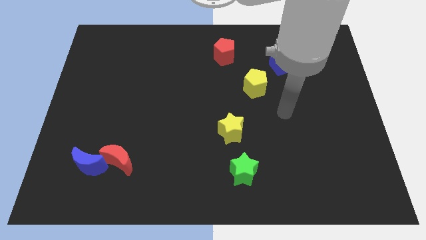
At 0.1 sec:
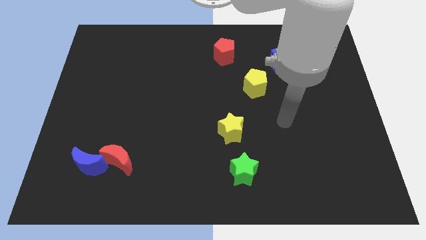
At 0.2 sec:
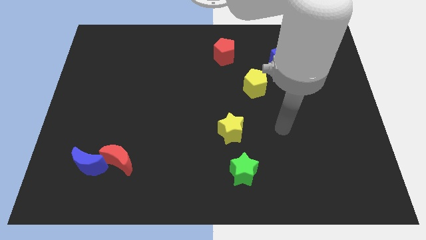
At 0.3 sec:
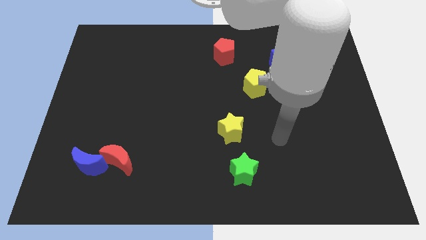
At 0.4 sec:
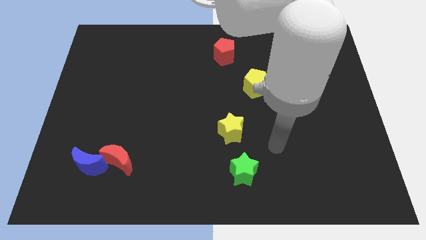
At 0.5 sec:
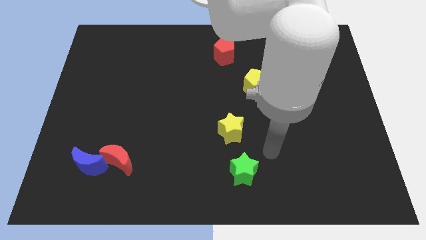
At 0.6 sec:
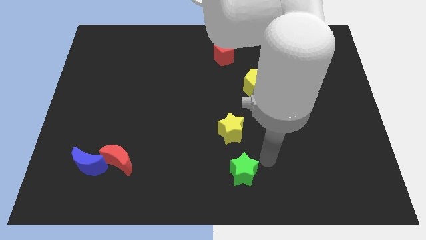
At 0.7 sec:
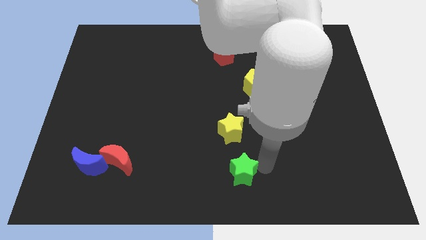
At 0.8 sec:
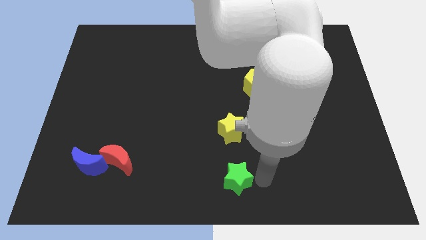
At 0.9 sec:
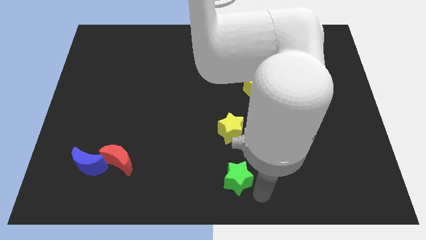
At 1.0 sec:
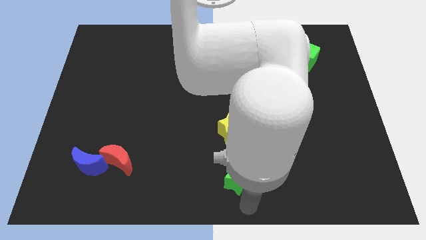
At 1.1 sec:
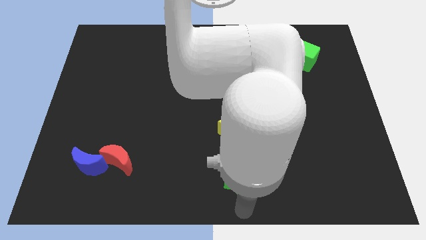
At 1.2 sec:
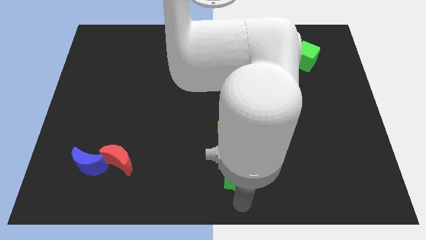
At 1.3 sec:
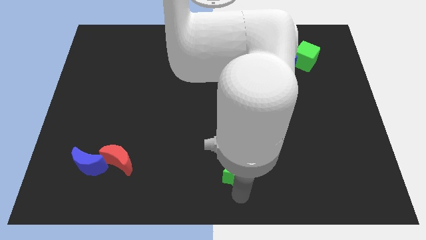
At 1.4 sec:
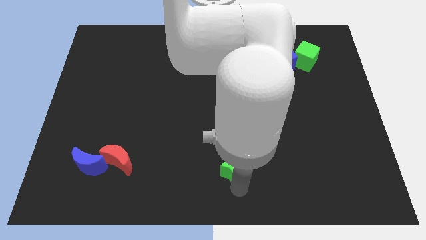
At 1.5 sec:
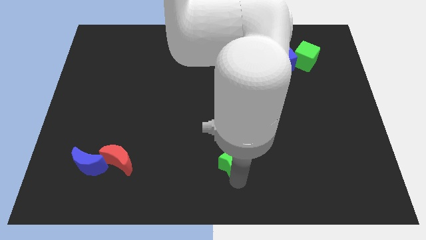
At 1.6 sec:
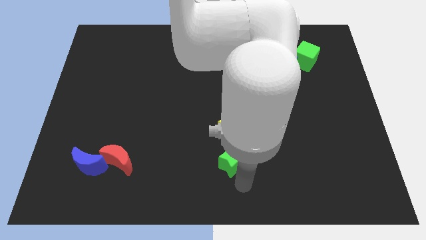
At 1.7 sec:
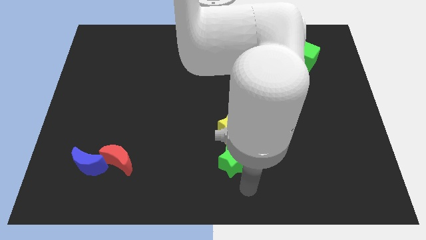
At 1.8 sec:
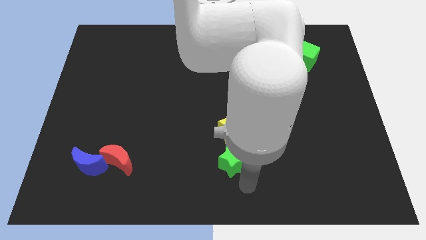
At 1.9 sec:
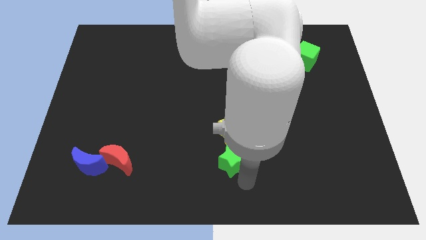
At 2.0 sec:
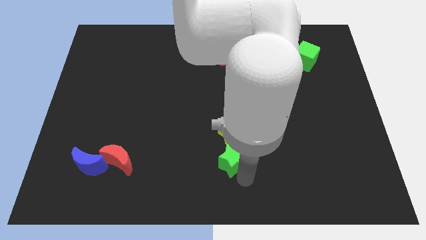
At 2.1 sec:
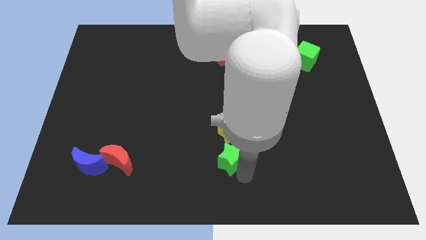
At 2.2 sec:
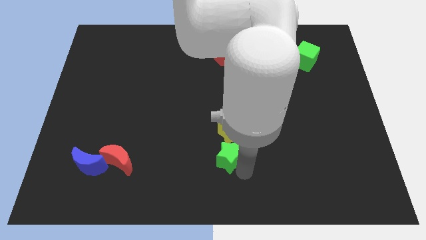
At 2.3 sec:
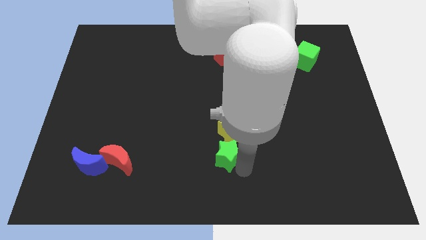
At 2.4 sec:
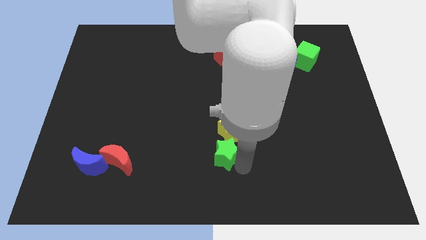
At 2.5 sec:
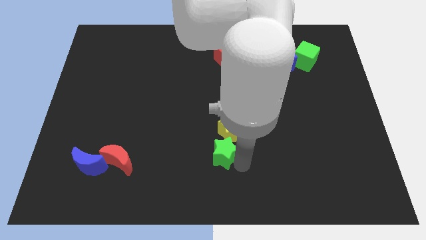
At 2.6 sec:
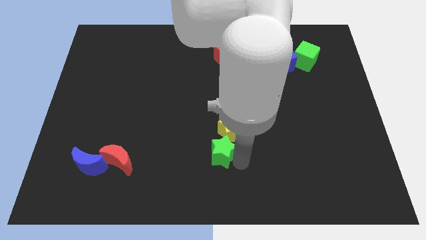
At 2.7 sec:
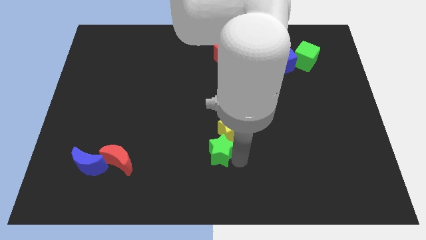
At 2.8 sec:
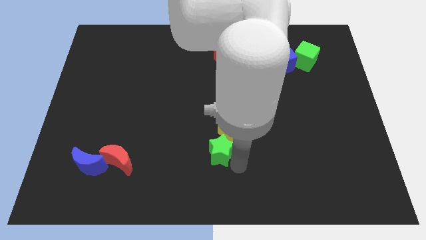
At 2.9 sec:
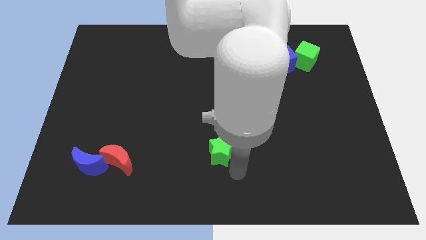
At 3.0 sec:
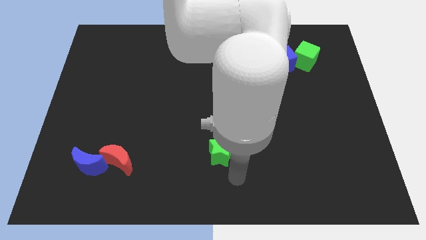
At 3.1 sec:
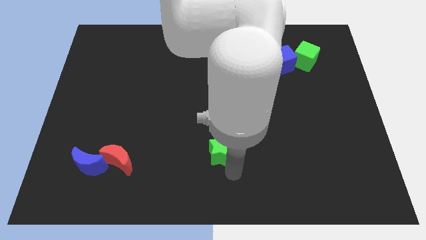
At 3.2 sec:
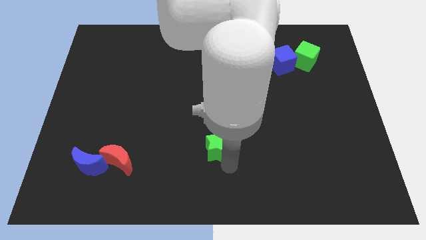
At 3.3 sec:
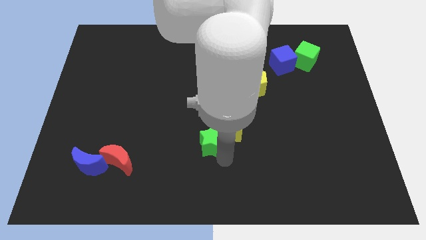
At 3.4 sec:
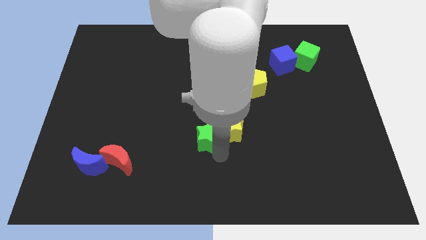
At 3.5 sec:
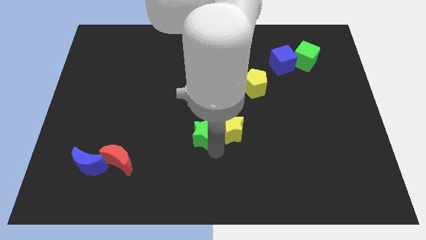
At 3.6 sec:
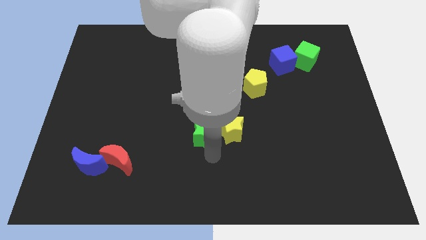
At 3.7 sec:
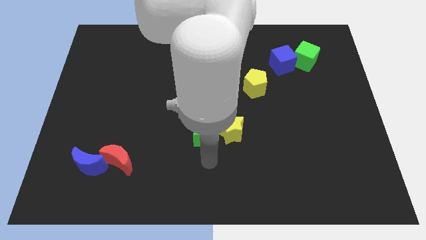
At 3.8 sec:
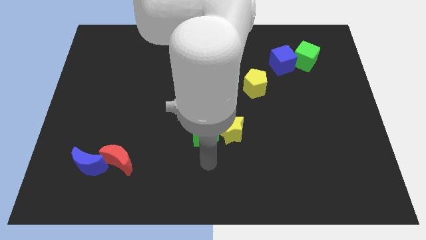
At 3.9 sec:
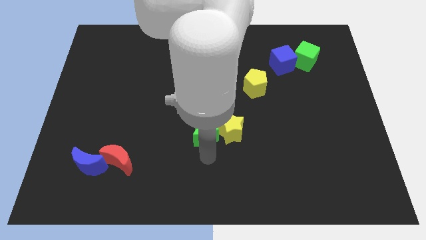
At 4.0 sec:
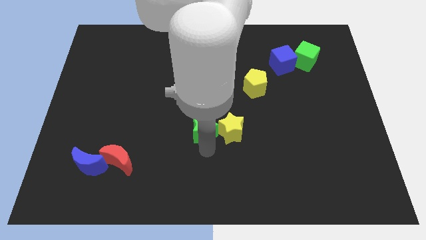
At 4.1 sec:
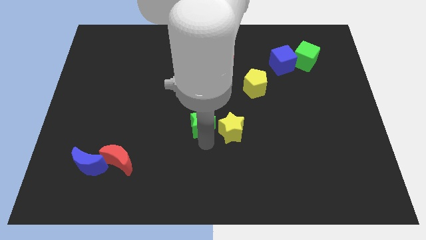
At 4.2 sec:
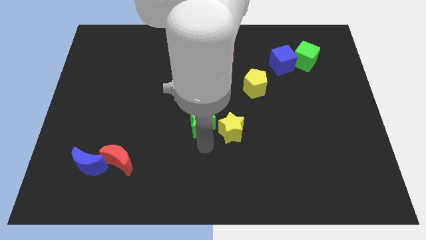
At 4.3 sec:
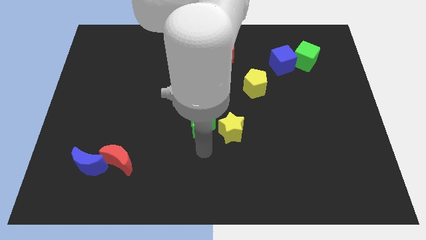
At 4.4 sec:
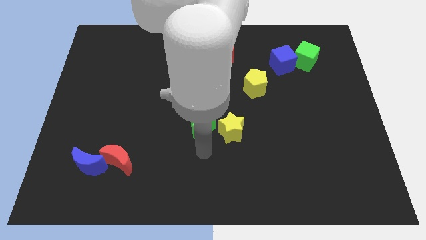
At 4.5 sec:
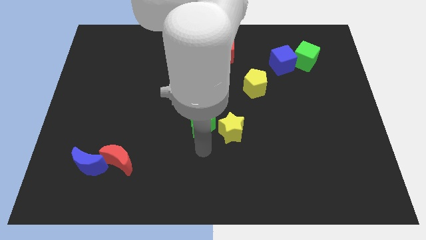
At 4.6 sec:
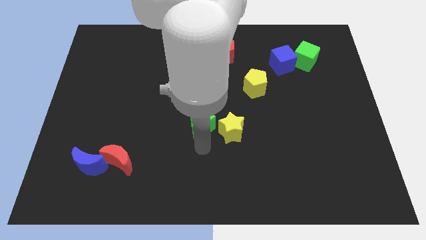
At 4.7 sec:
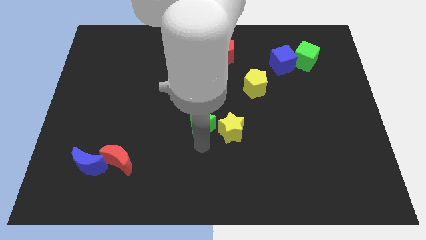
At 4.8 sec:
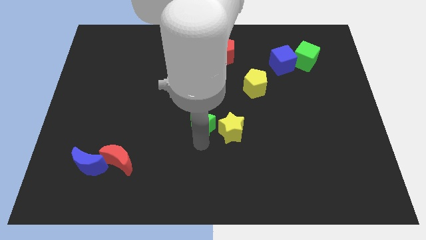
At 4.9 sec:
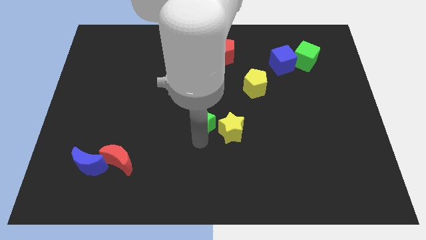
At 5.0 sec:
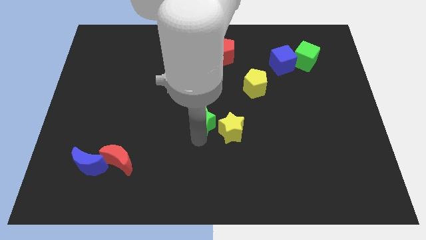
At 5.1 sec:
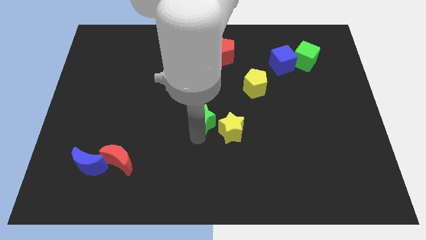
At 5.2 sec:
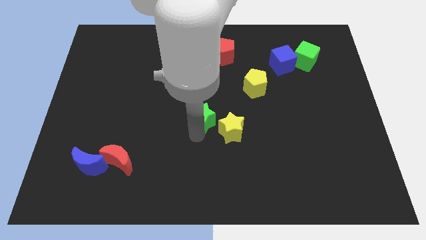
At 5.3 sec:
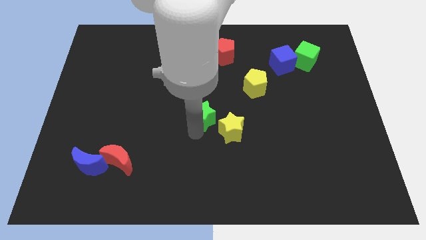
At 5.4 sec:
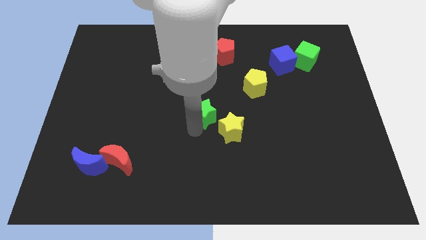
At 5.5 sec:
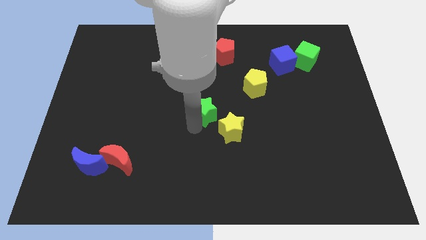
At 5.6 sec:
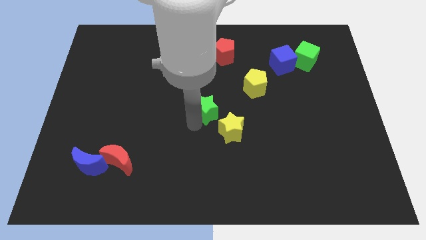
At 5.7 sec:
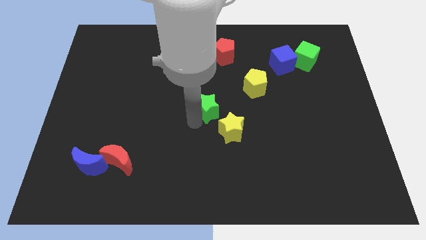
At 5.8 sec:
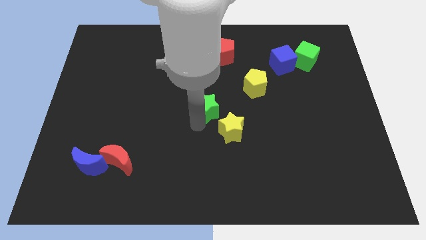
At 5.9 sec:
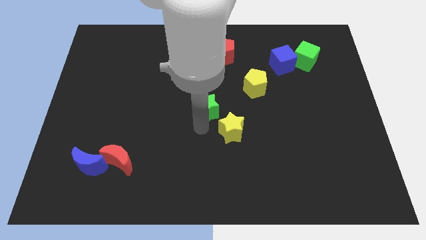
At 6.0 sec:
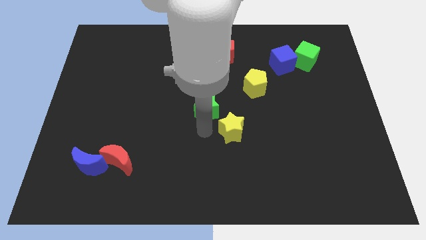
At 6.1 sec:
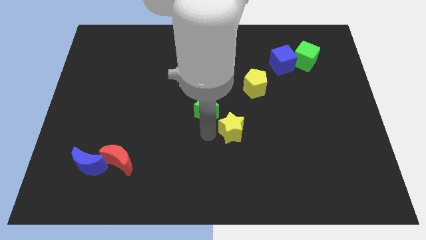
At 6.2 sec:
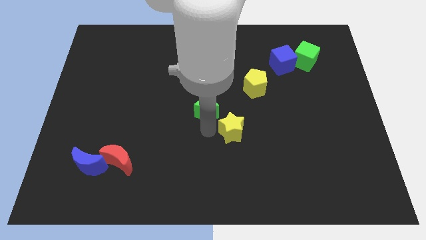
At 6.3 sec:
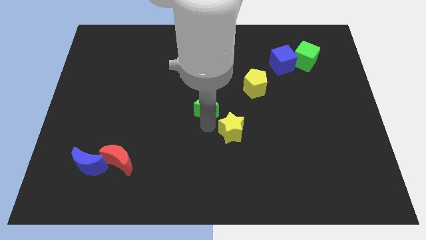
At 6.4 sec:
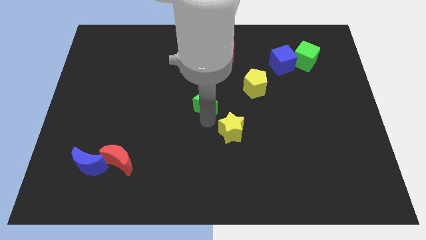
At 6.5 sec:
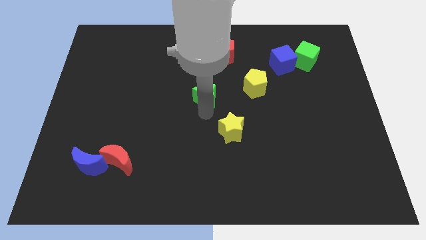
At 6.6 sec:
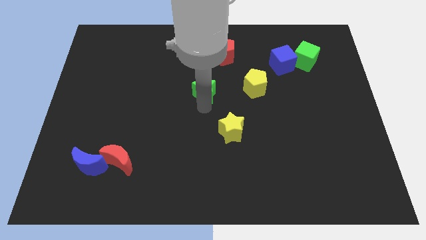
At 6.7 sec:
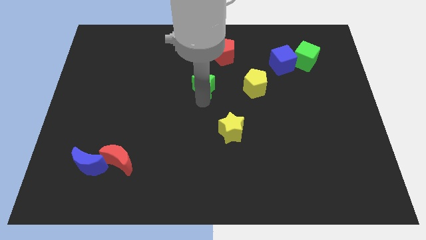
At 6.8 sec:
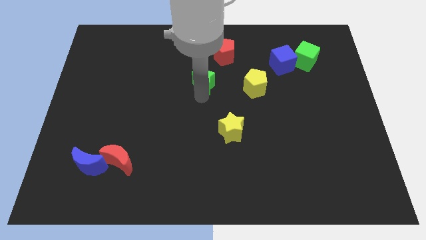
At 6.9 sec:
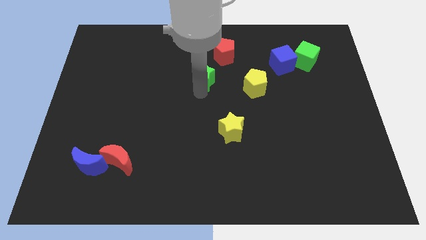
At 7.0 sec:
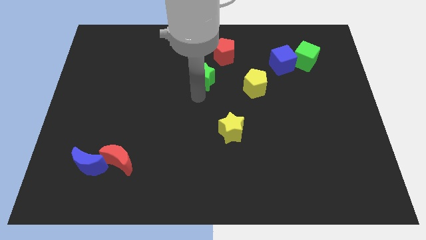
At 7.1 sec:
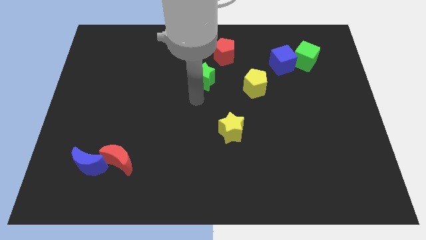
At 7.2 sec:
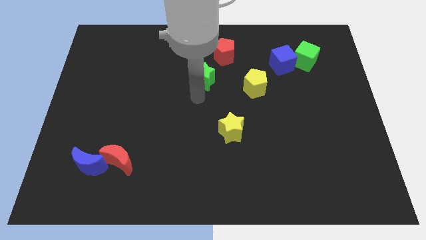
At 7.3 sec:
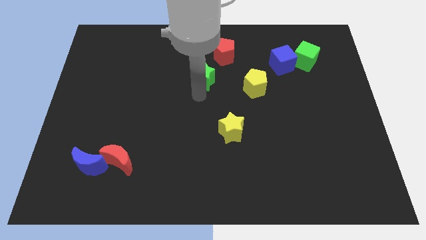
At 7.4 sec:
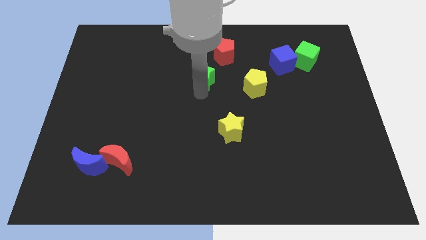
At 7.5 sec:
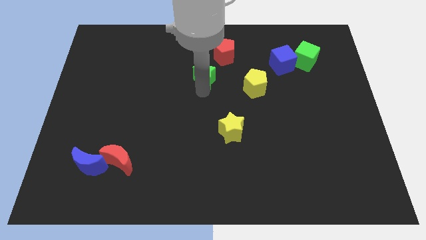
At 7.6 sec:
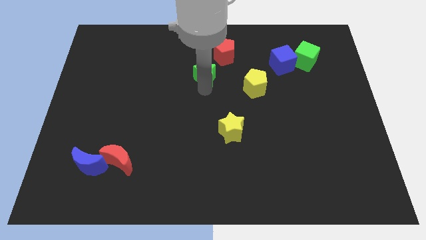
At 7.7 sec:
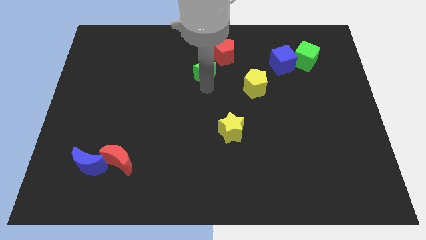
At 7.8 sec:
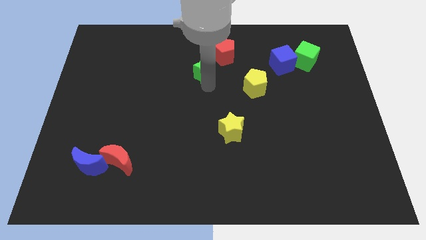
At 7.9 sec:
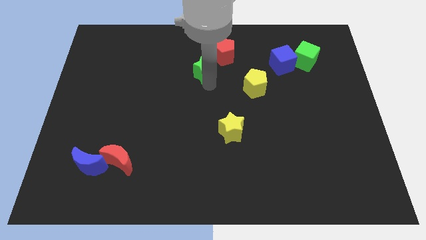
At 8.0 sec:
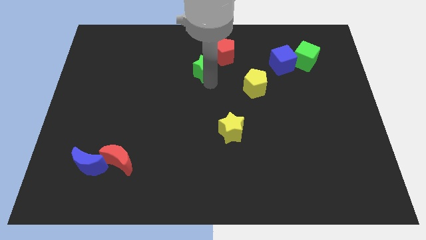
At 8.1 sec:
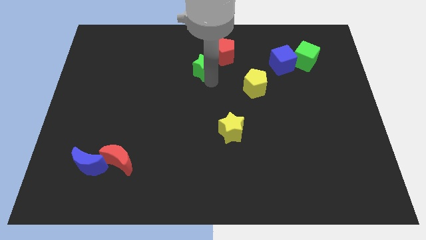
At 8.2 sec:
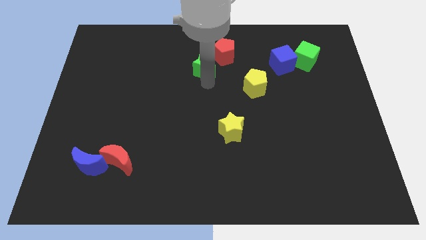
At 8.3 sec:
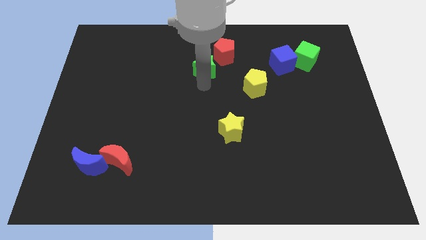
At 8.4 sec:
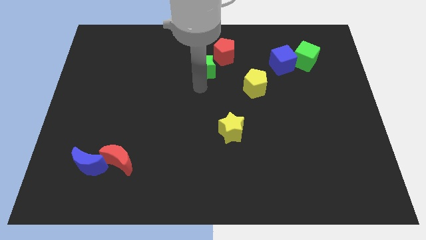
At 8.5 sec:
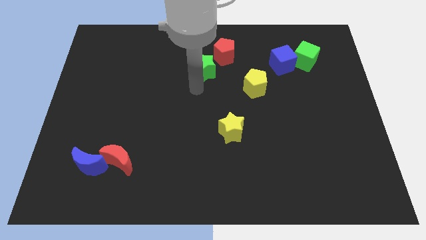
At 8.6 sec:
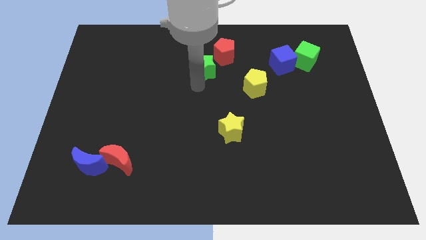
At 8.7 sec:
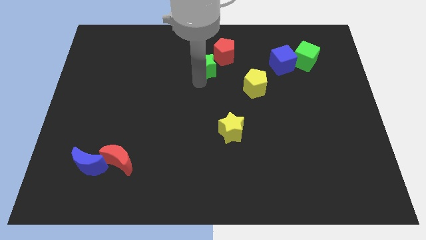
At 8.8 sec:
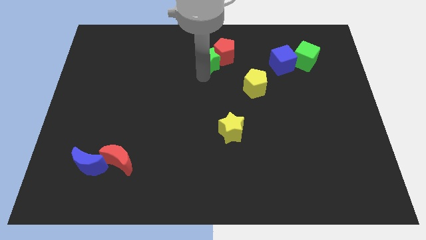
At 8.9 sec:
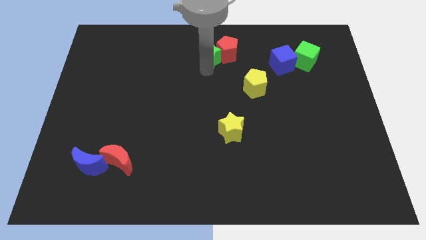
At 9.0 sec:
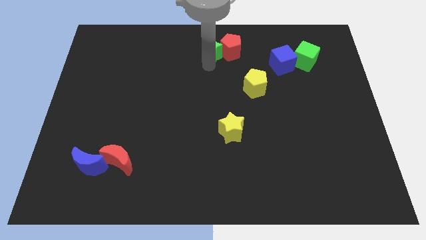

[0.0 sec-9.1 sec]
move the green star to the towards your base
